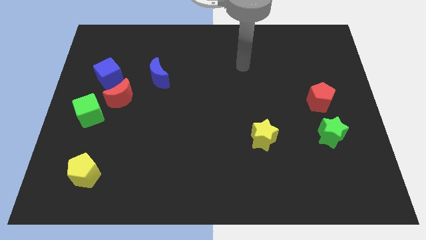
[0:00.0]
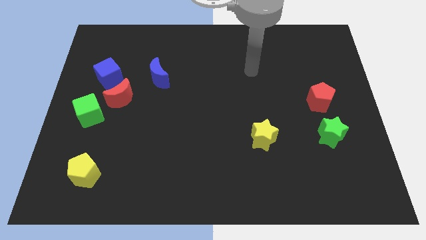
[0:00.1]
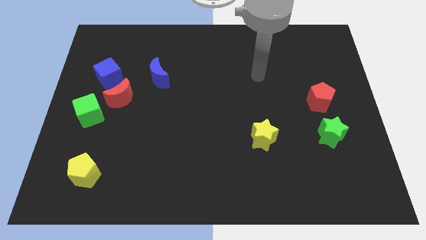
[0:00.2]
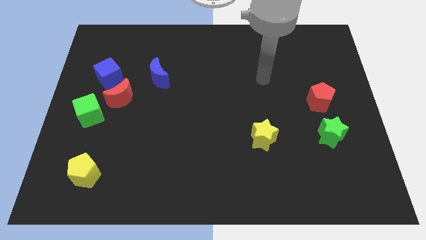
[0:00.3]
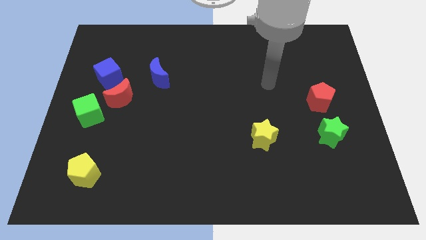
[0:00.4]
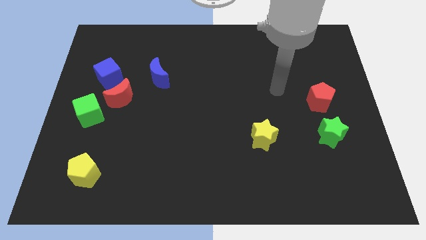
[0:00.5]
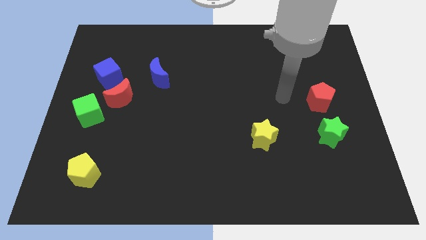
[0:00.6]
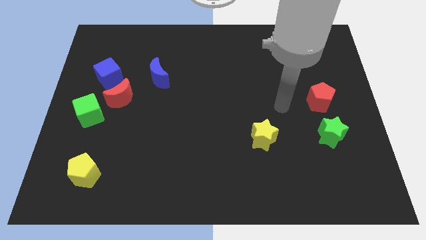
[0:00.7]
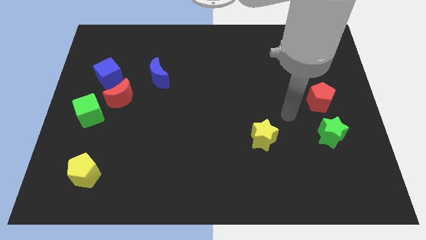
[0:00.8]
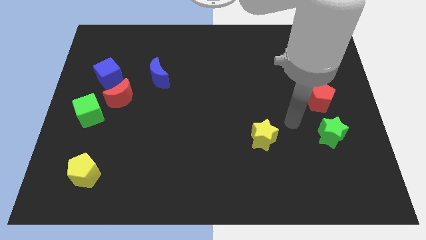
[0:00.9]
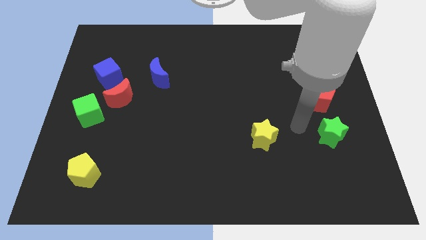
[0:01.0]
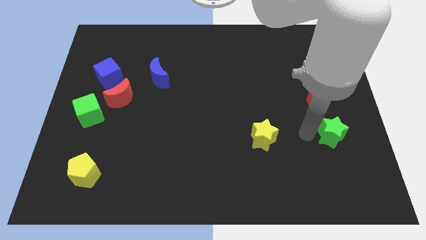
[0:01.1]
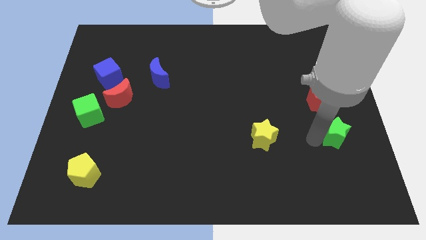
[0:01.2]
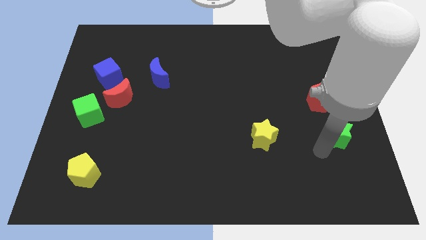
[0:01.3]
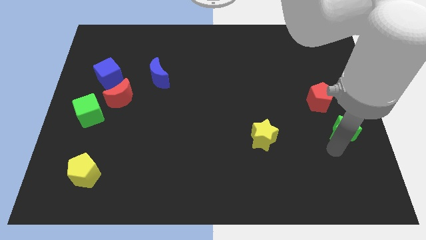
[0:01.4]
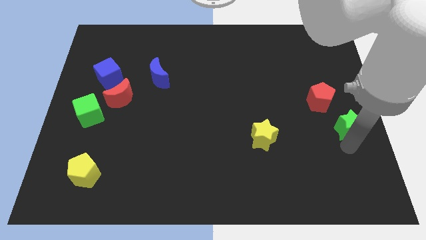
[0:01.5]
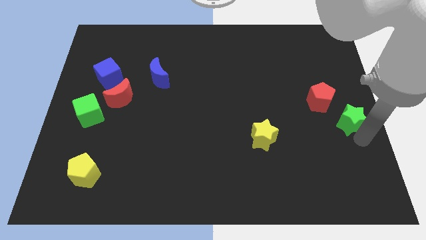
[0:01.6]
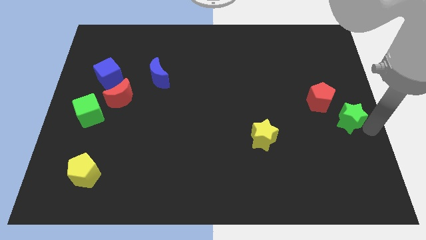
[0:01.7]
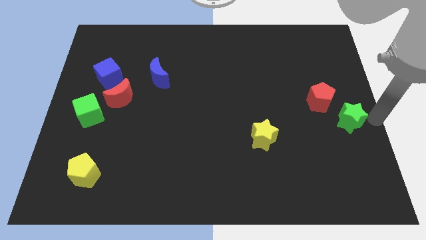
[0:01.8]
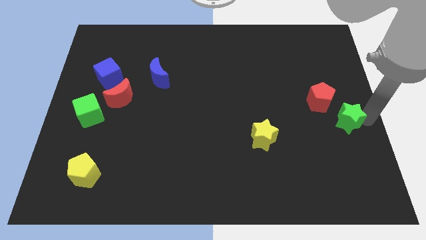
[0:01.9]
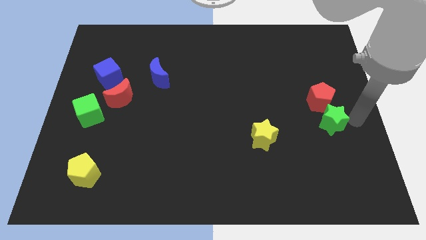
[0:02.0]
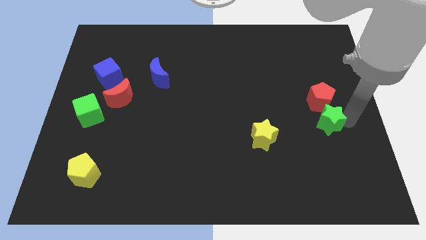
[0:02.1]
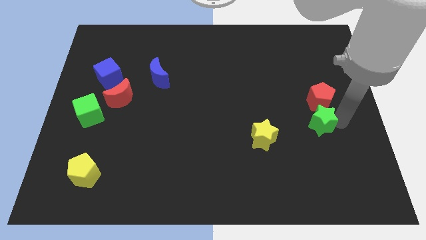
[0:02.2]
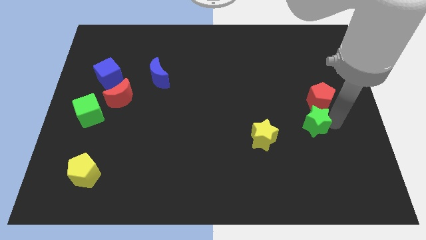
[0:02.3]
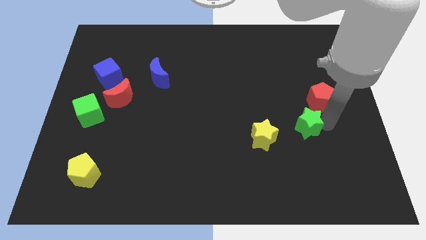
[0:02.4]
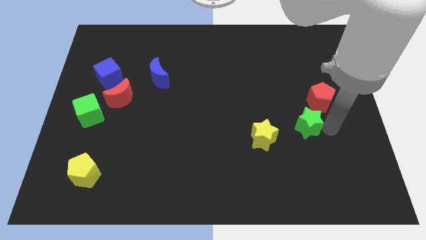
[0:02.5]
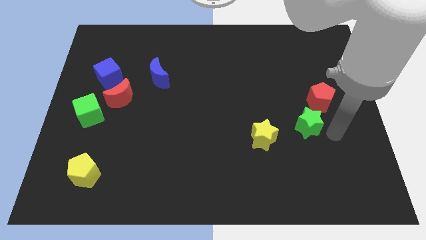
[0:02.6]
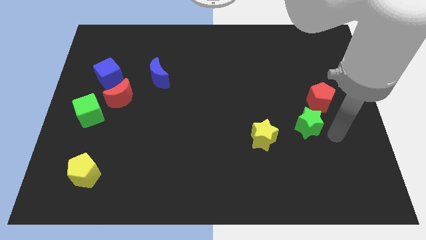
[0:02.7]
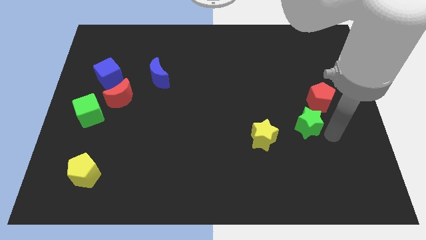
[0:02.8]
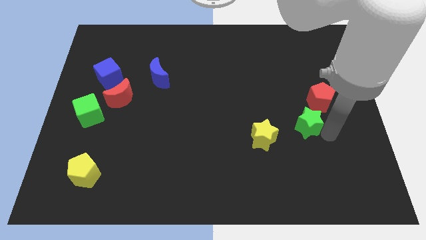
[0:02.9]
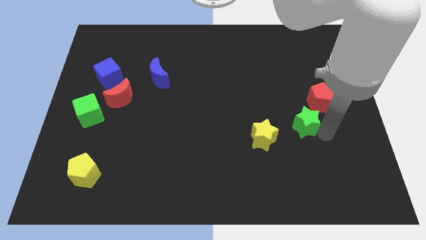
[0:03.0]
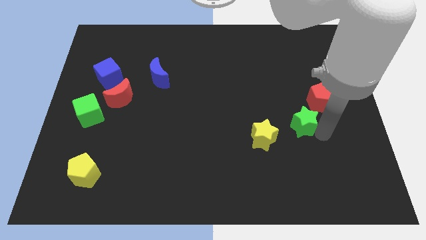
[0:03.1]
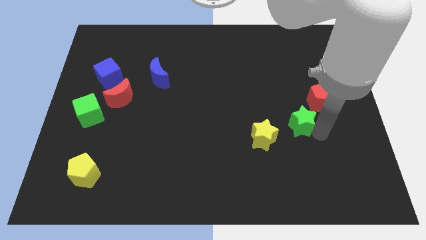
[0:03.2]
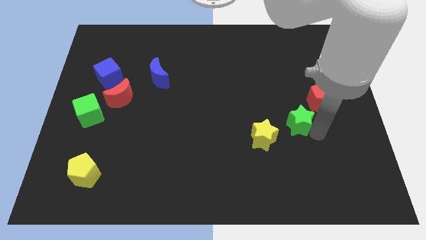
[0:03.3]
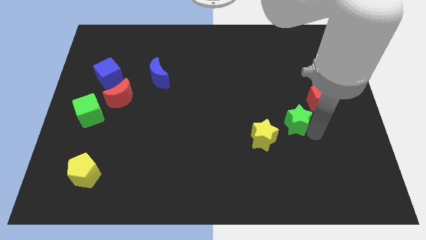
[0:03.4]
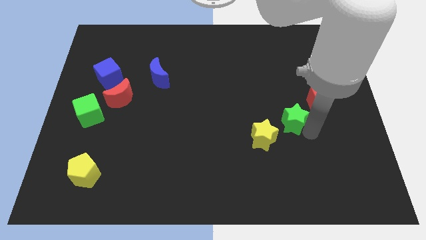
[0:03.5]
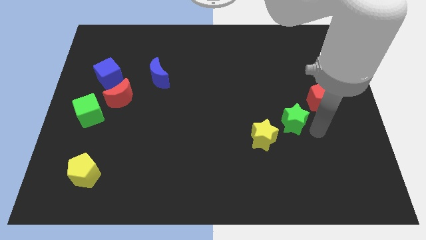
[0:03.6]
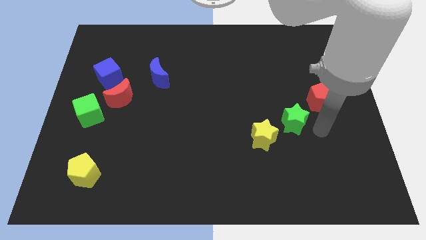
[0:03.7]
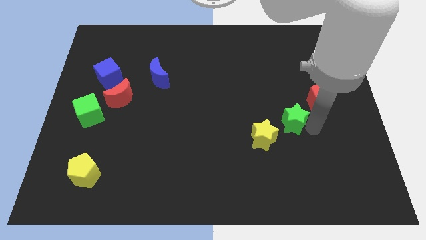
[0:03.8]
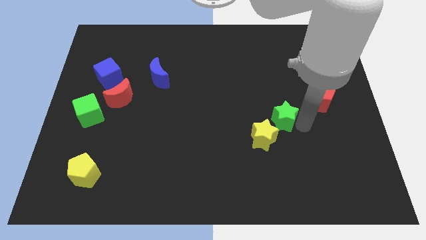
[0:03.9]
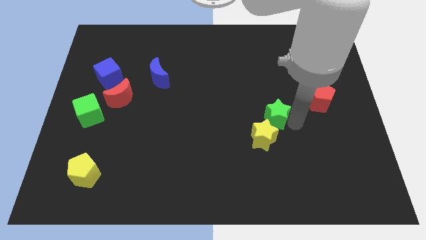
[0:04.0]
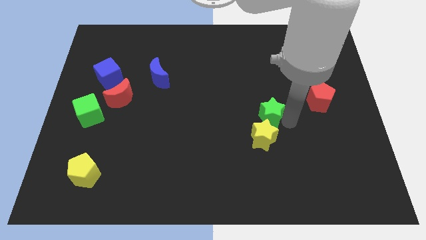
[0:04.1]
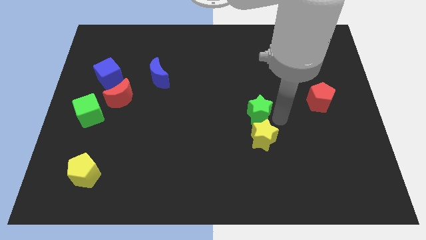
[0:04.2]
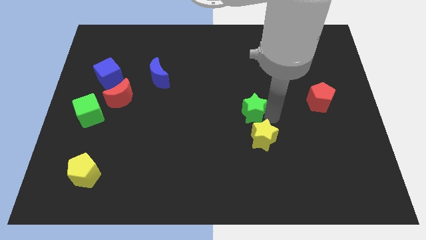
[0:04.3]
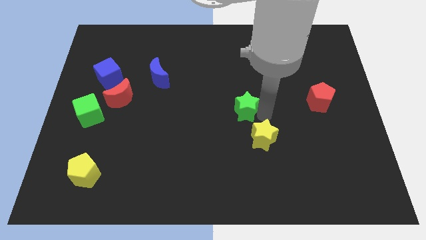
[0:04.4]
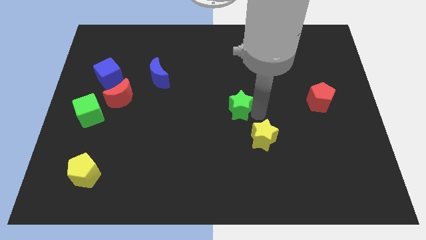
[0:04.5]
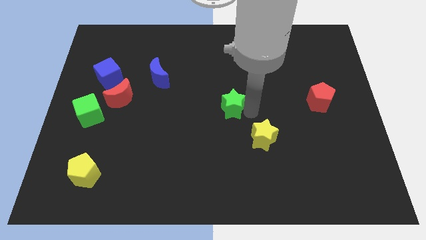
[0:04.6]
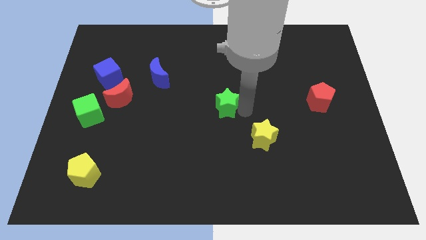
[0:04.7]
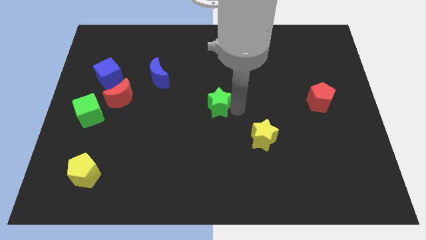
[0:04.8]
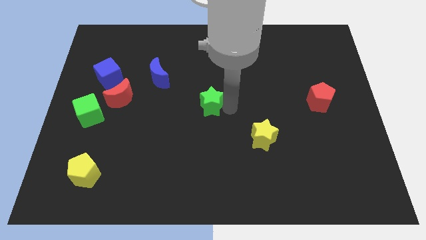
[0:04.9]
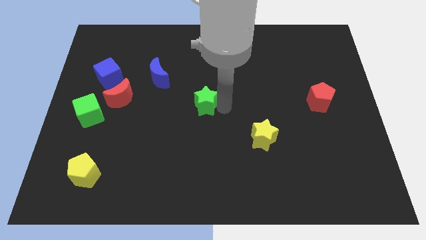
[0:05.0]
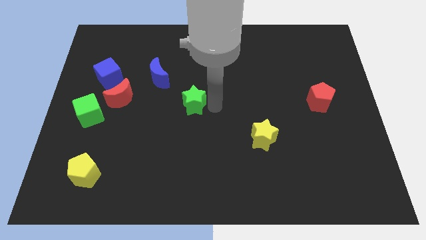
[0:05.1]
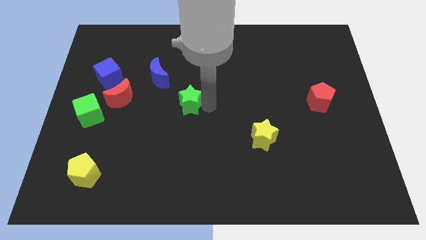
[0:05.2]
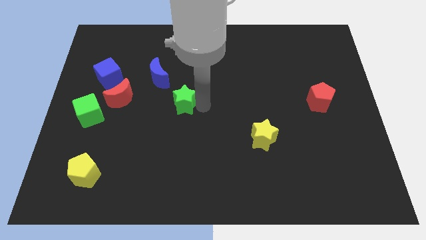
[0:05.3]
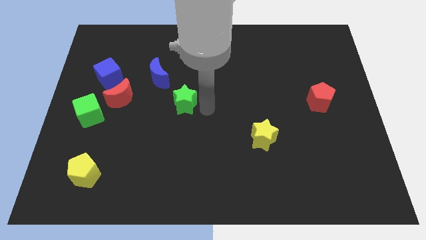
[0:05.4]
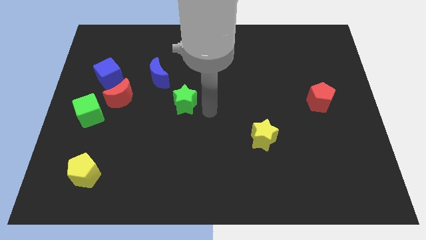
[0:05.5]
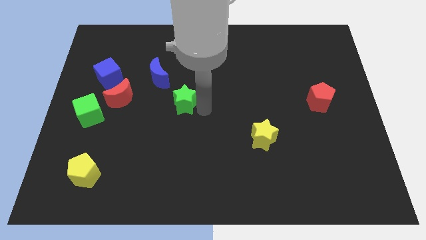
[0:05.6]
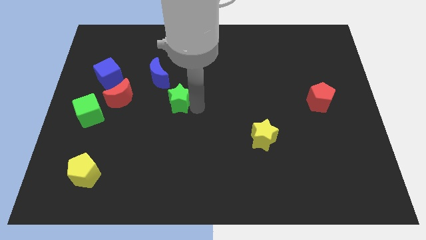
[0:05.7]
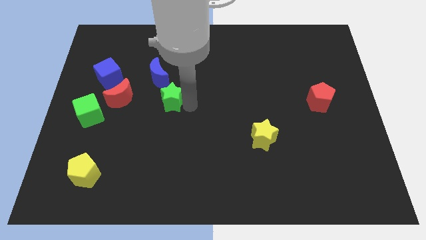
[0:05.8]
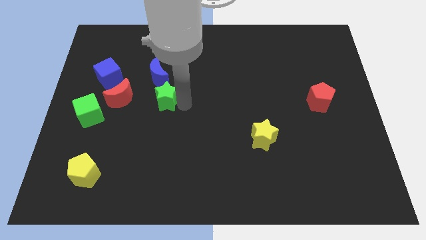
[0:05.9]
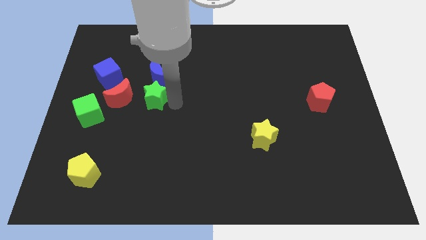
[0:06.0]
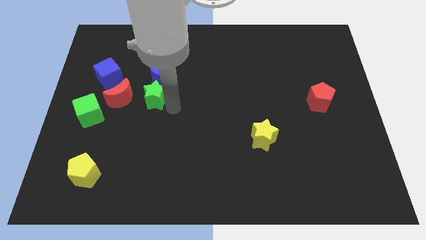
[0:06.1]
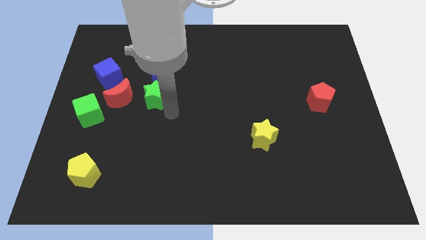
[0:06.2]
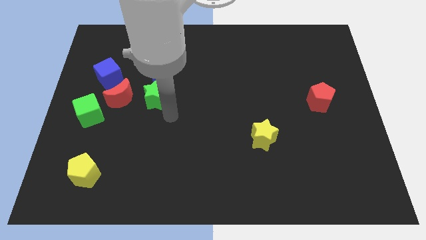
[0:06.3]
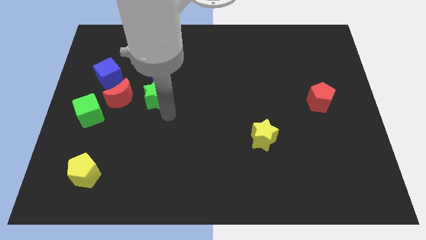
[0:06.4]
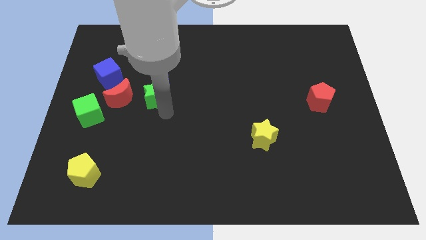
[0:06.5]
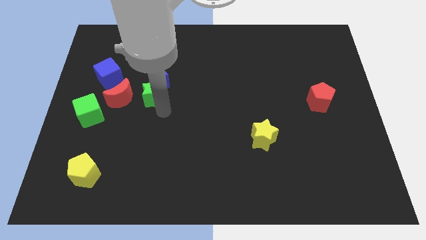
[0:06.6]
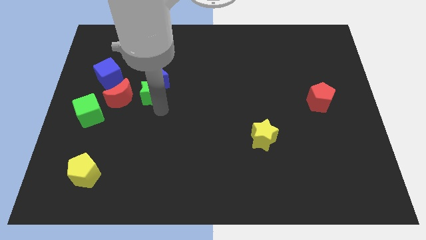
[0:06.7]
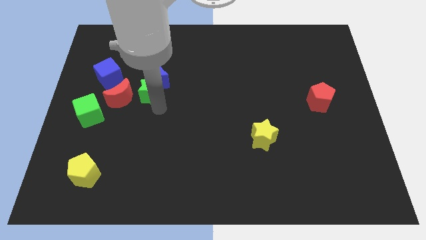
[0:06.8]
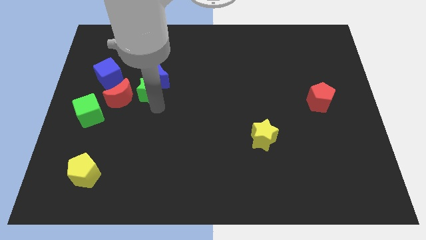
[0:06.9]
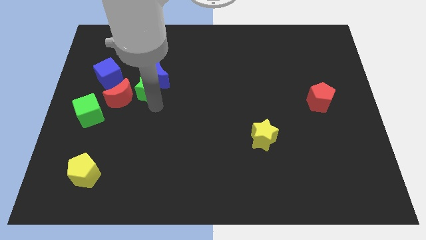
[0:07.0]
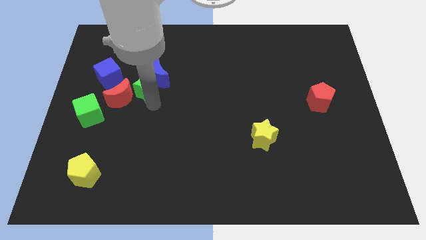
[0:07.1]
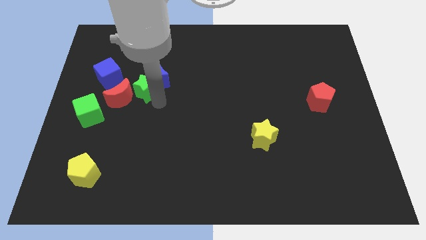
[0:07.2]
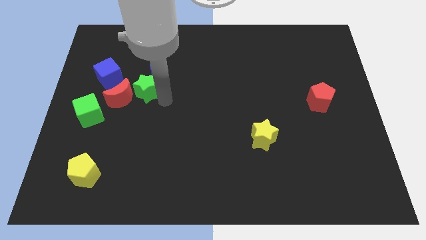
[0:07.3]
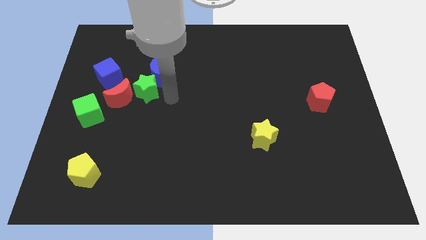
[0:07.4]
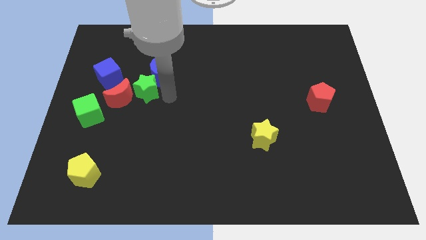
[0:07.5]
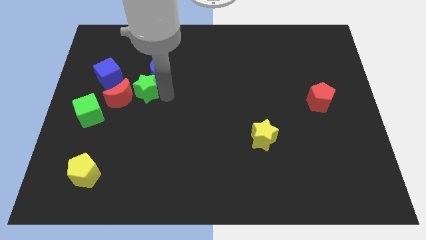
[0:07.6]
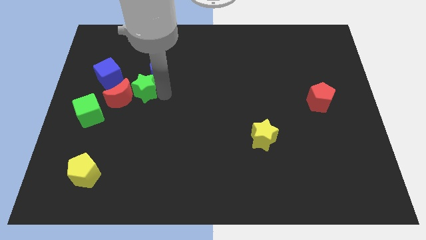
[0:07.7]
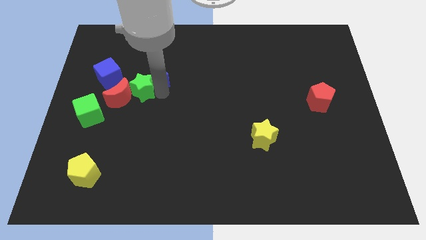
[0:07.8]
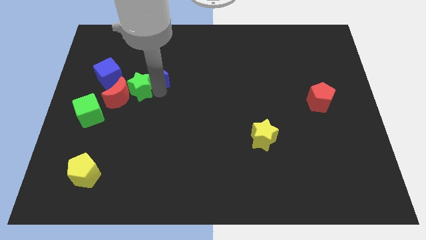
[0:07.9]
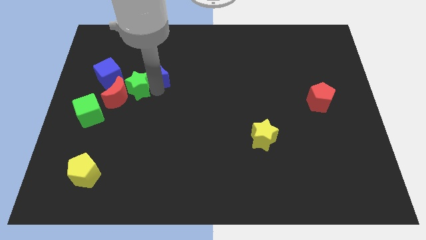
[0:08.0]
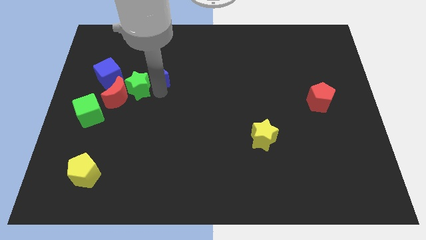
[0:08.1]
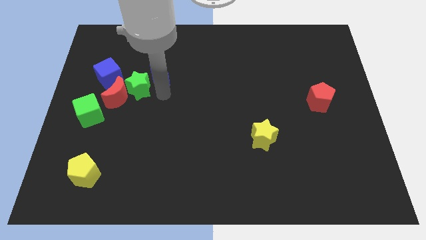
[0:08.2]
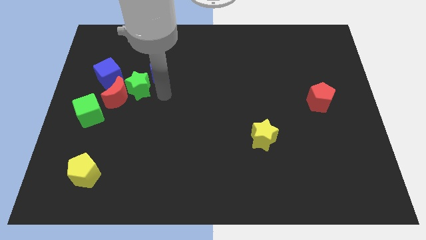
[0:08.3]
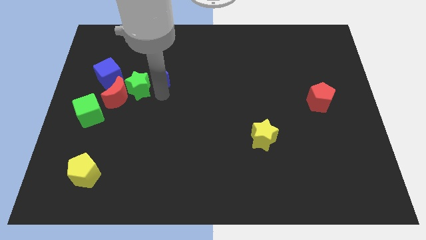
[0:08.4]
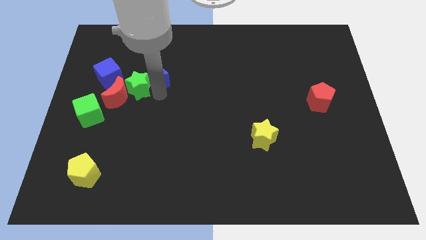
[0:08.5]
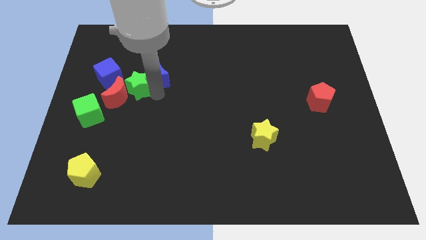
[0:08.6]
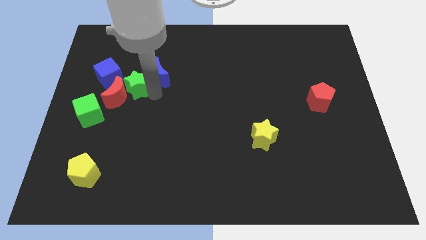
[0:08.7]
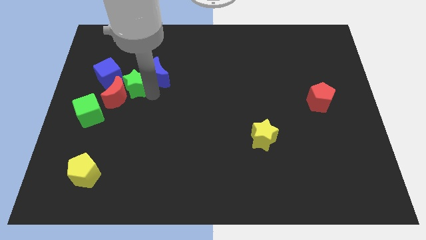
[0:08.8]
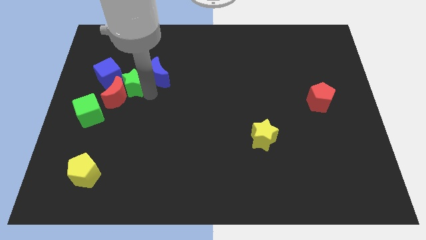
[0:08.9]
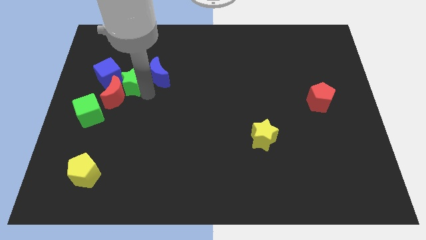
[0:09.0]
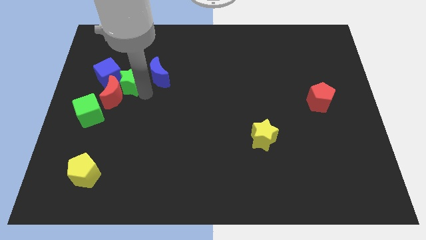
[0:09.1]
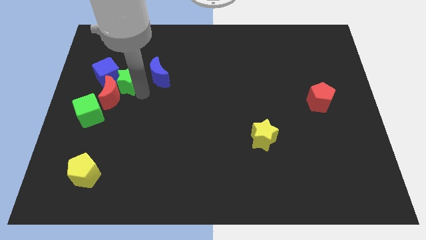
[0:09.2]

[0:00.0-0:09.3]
push the green star to the blue cube
